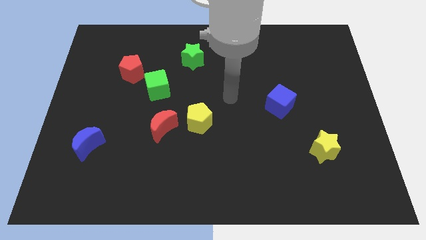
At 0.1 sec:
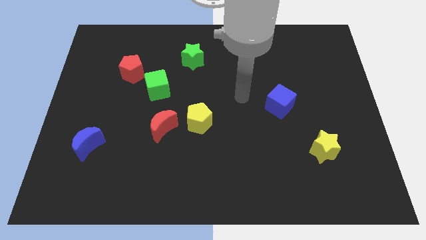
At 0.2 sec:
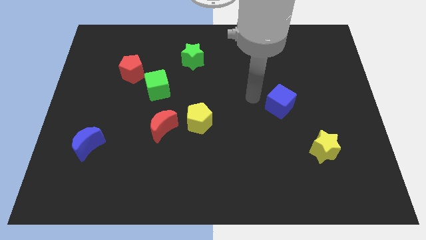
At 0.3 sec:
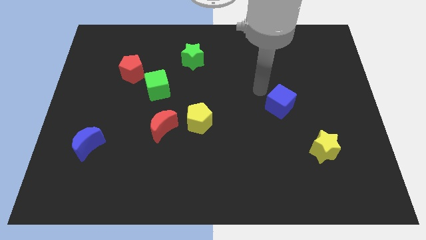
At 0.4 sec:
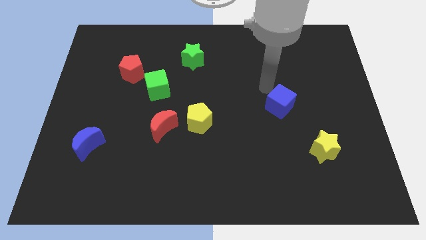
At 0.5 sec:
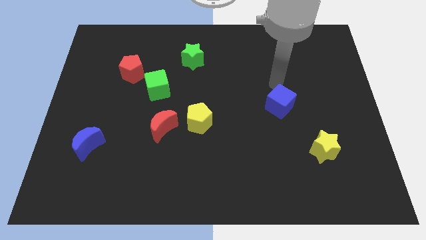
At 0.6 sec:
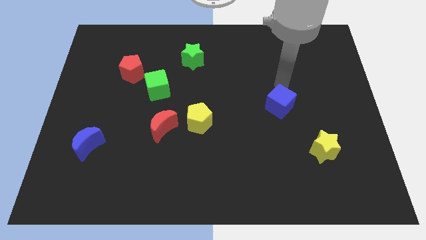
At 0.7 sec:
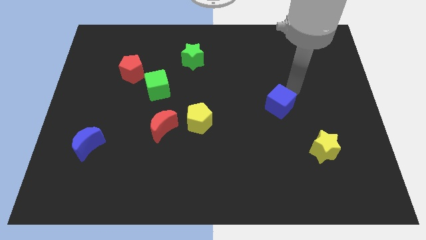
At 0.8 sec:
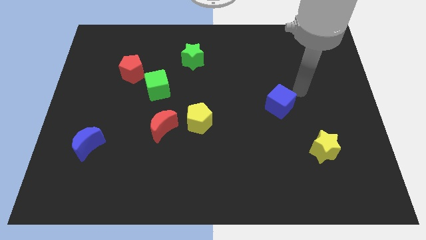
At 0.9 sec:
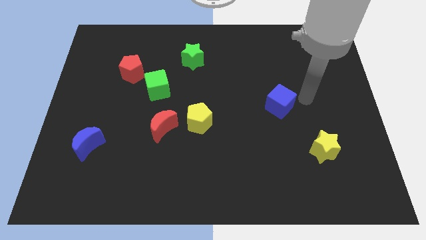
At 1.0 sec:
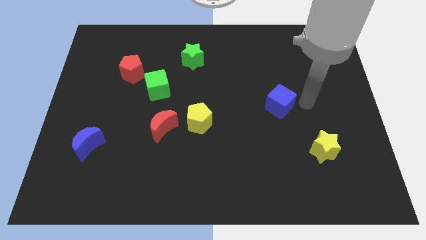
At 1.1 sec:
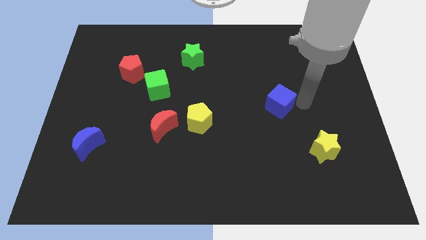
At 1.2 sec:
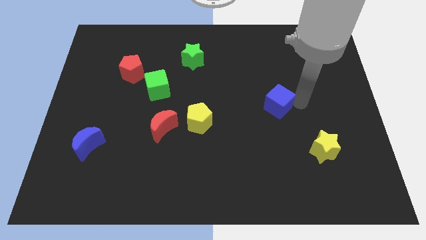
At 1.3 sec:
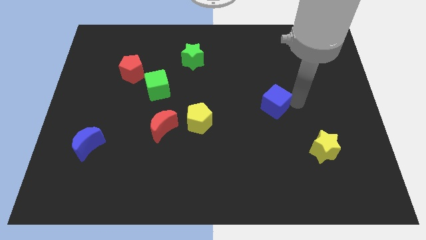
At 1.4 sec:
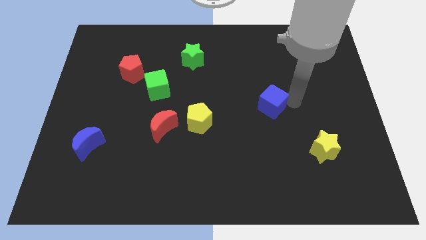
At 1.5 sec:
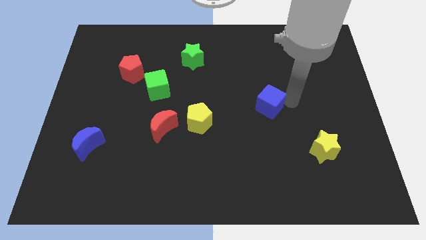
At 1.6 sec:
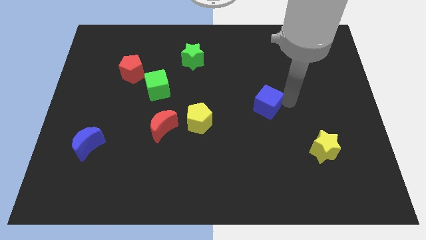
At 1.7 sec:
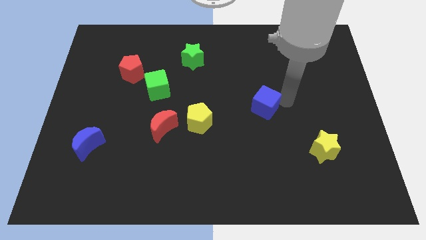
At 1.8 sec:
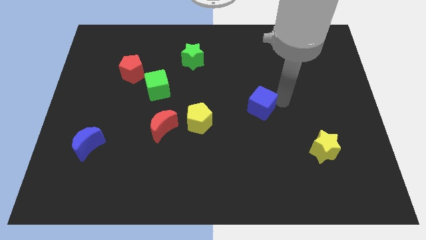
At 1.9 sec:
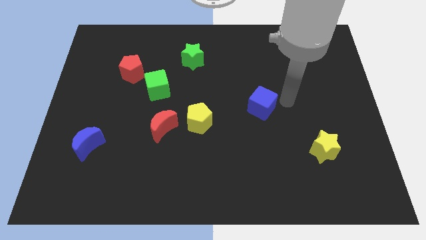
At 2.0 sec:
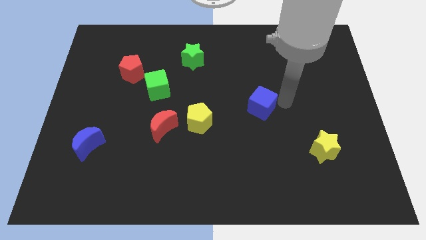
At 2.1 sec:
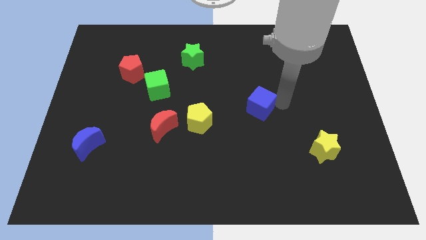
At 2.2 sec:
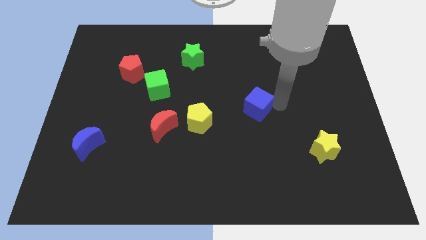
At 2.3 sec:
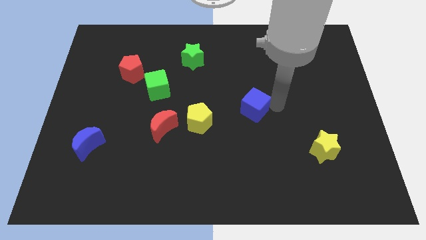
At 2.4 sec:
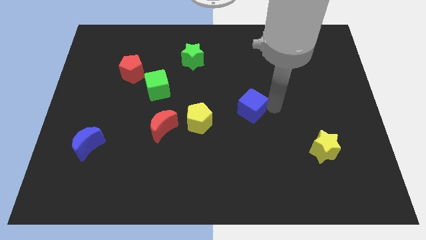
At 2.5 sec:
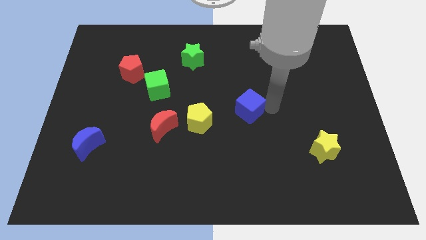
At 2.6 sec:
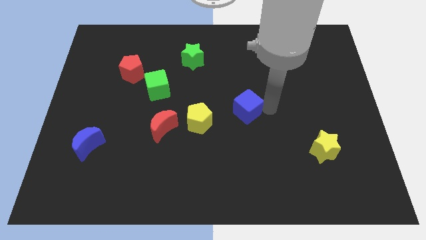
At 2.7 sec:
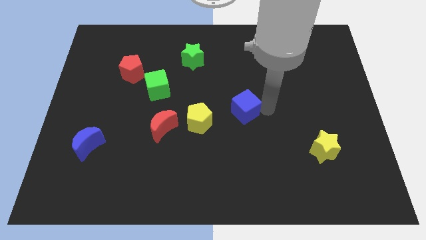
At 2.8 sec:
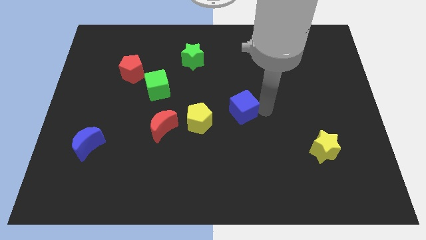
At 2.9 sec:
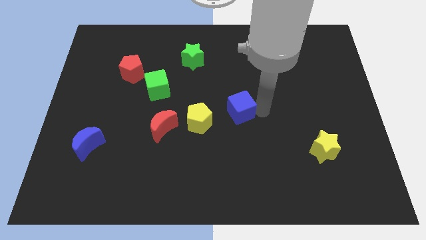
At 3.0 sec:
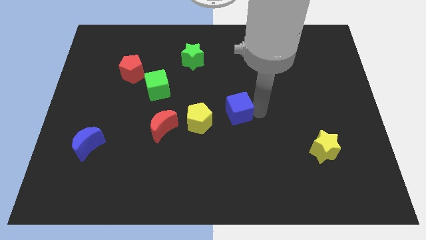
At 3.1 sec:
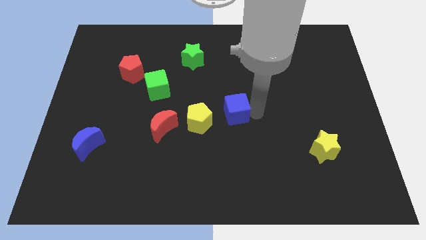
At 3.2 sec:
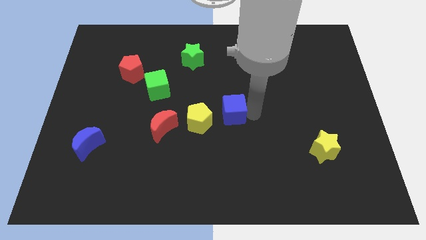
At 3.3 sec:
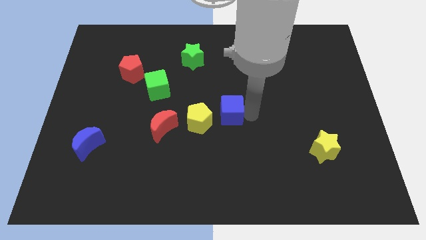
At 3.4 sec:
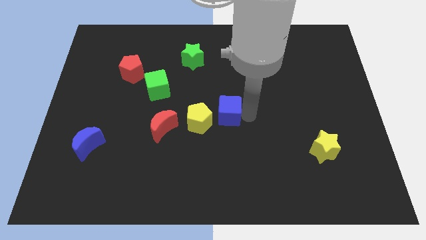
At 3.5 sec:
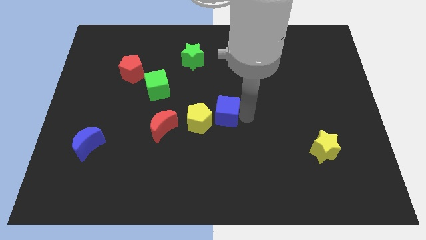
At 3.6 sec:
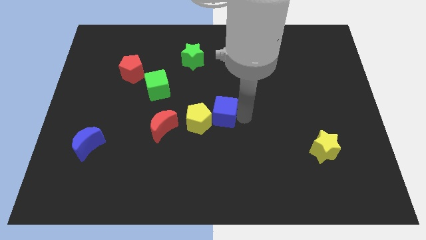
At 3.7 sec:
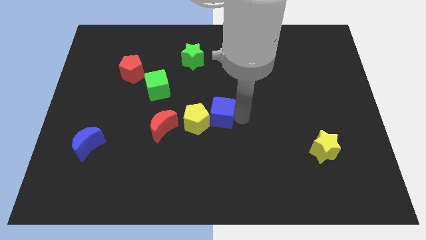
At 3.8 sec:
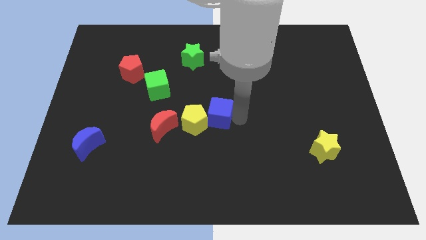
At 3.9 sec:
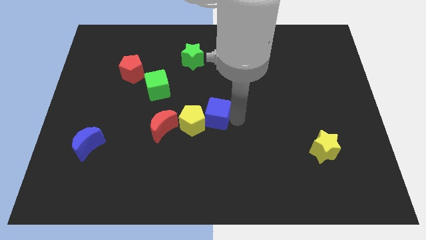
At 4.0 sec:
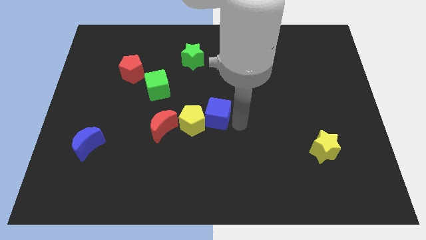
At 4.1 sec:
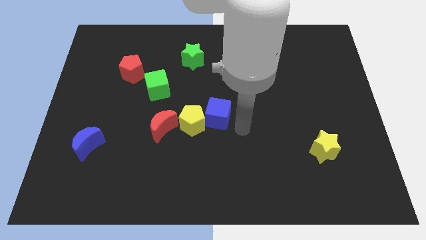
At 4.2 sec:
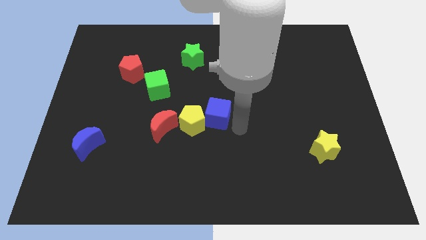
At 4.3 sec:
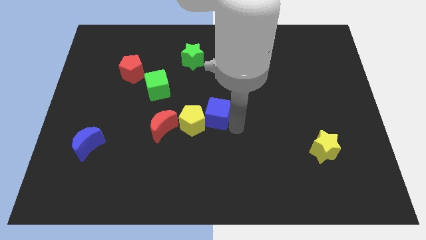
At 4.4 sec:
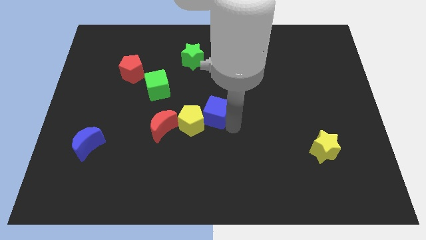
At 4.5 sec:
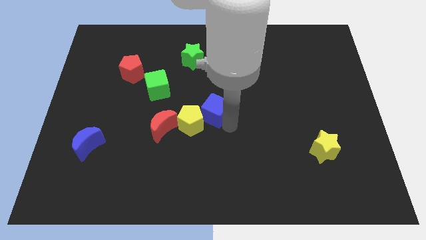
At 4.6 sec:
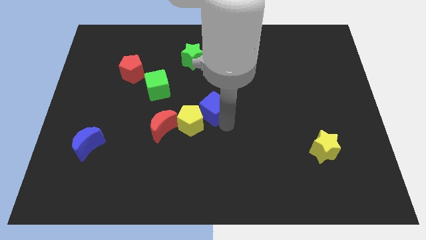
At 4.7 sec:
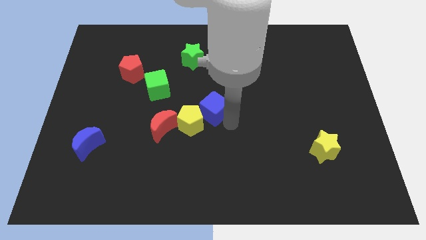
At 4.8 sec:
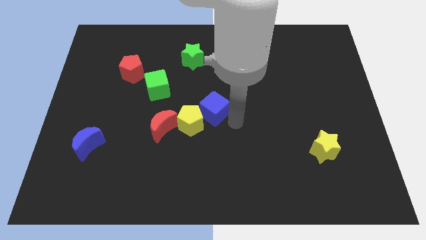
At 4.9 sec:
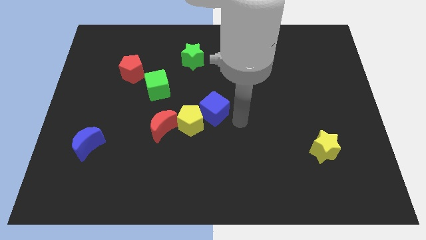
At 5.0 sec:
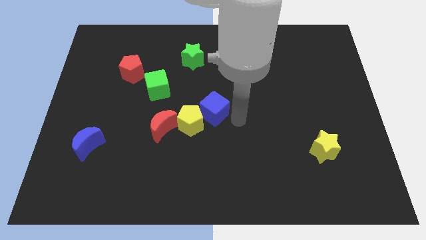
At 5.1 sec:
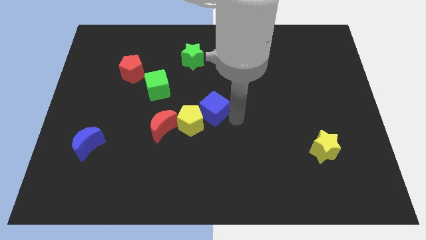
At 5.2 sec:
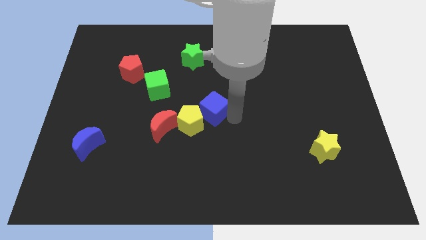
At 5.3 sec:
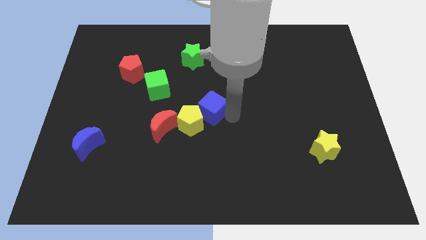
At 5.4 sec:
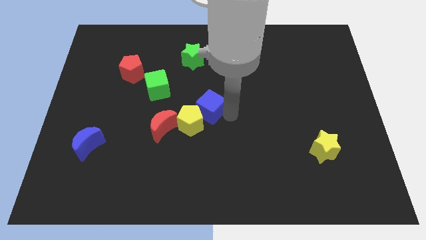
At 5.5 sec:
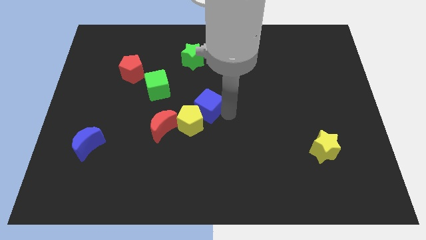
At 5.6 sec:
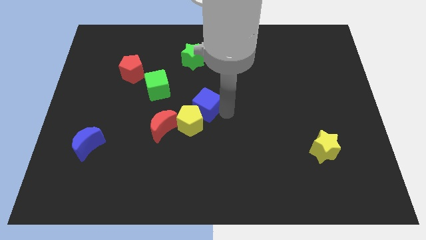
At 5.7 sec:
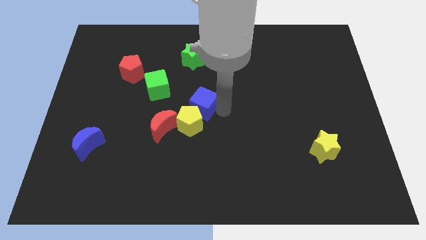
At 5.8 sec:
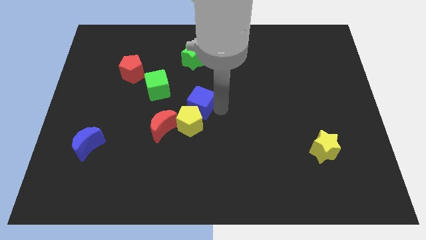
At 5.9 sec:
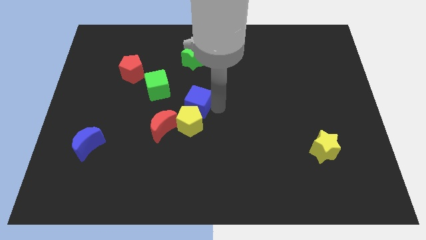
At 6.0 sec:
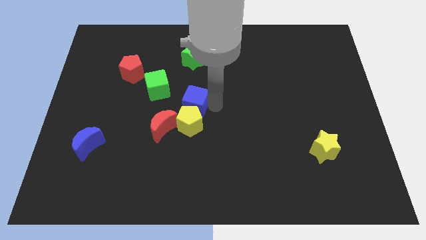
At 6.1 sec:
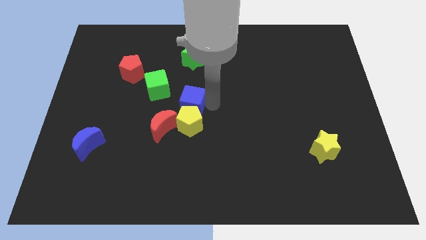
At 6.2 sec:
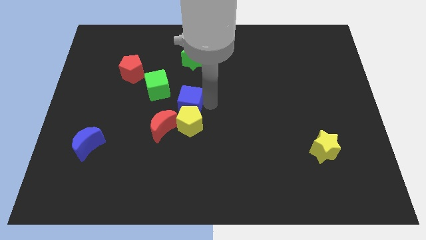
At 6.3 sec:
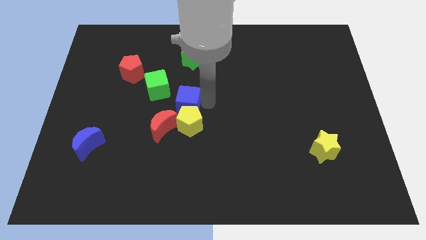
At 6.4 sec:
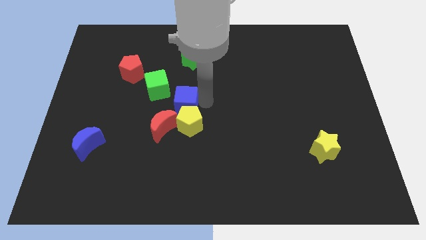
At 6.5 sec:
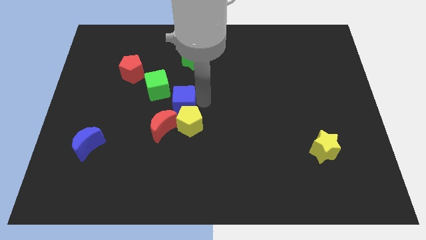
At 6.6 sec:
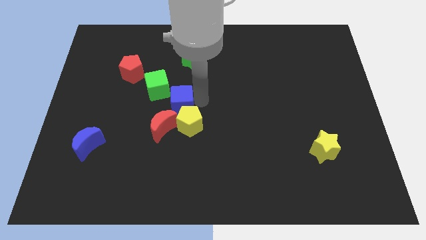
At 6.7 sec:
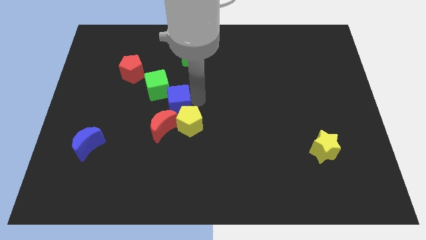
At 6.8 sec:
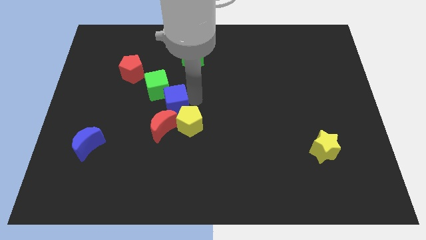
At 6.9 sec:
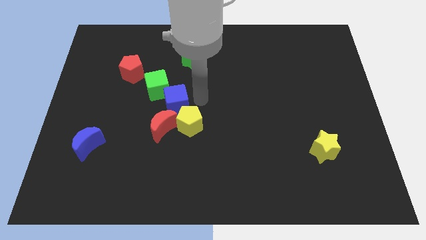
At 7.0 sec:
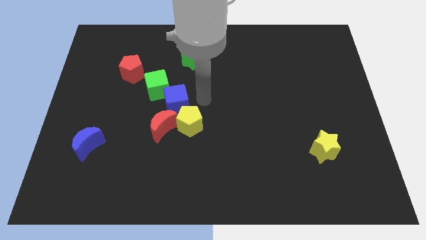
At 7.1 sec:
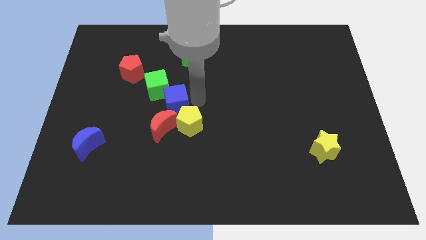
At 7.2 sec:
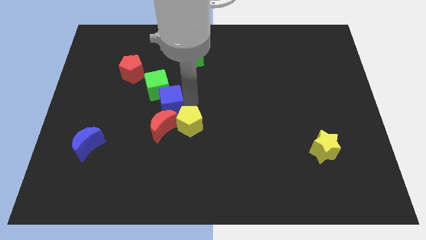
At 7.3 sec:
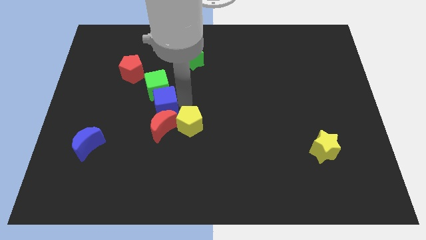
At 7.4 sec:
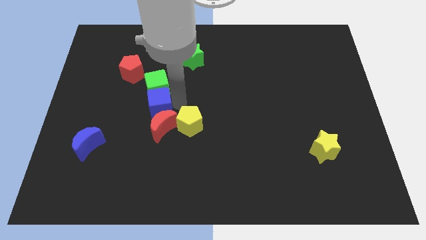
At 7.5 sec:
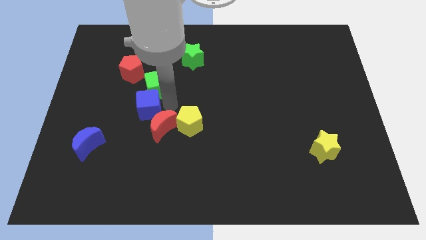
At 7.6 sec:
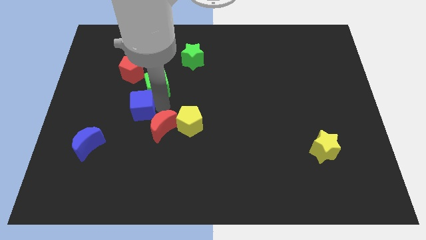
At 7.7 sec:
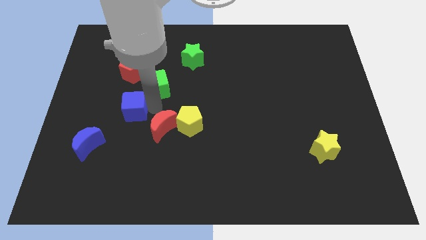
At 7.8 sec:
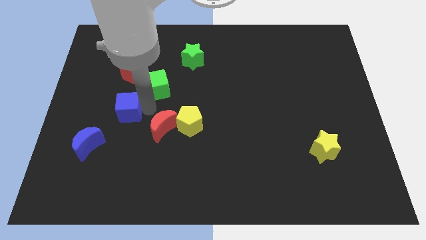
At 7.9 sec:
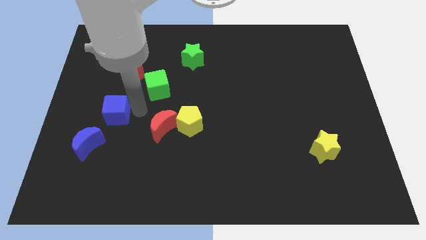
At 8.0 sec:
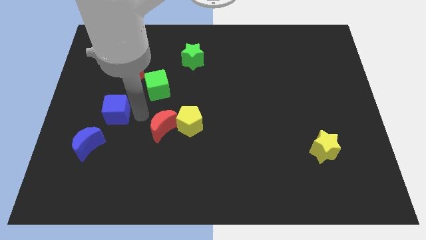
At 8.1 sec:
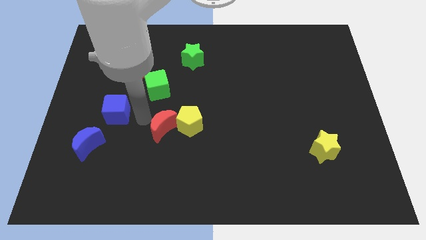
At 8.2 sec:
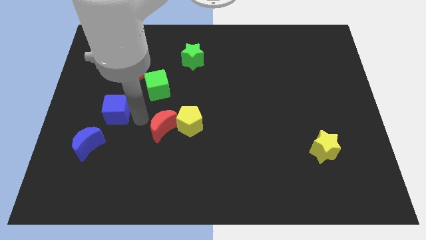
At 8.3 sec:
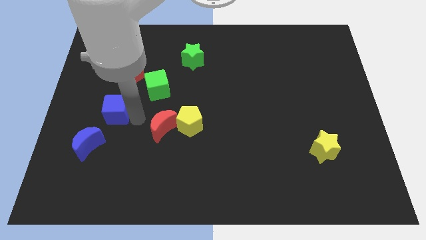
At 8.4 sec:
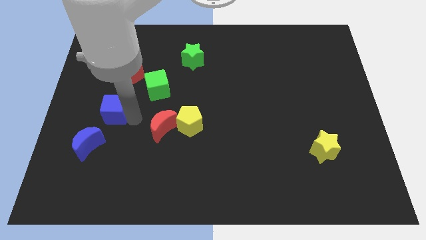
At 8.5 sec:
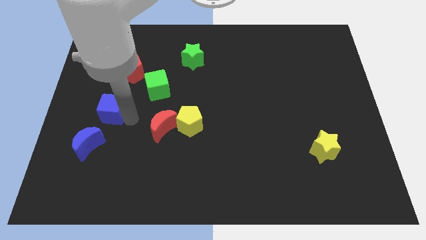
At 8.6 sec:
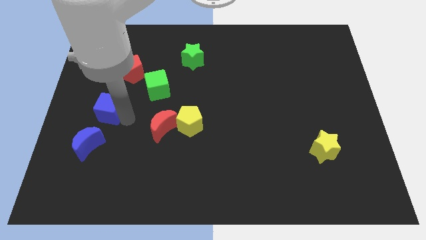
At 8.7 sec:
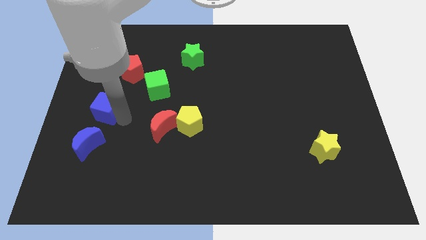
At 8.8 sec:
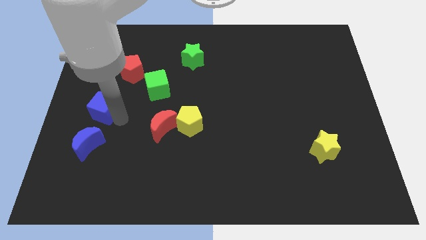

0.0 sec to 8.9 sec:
push the blue cube to the center left
